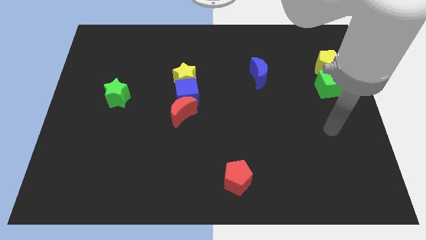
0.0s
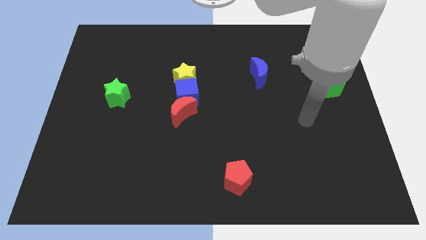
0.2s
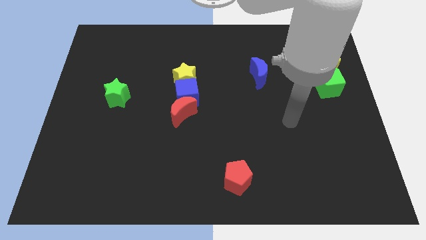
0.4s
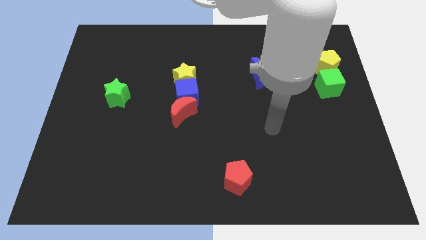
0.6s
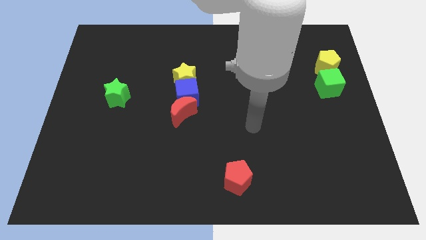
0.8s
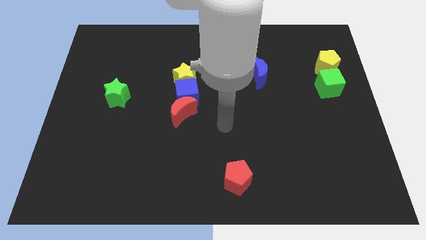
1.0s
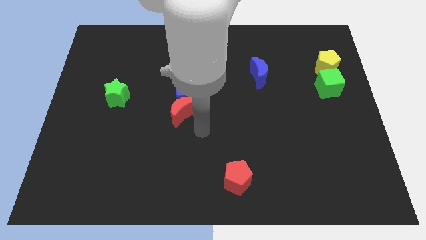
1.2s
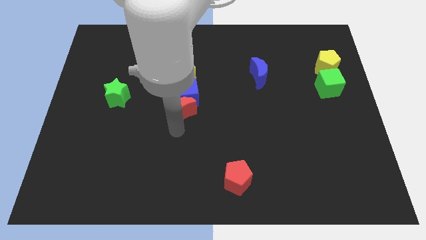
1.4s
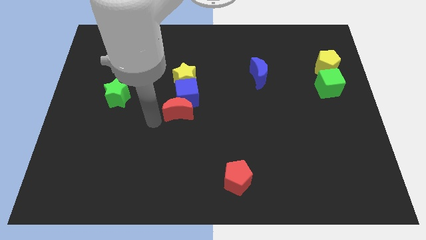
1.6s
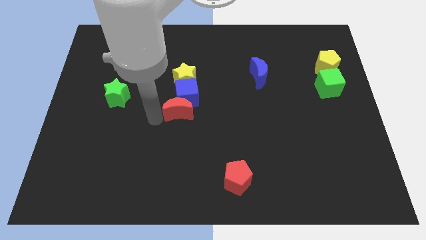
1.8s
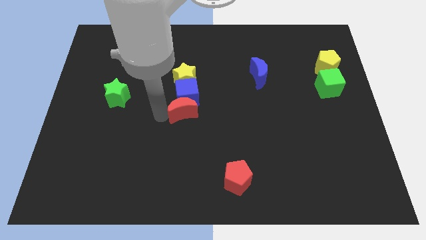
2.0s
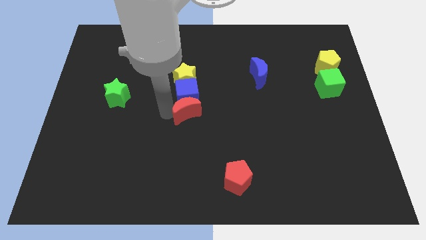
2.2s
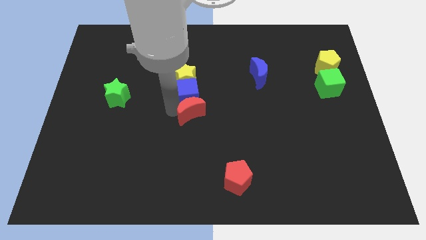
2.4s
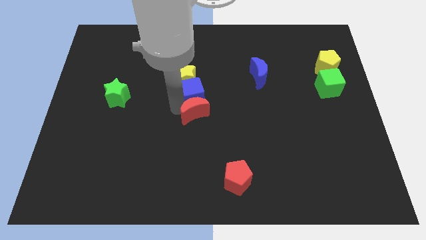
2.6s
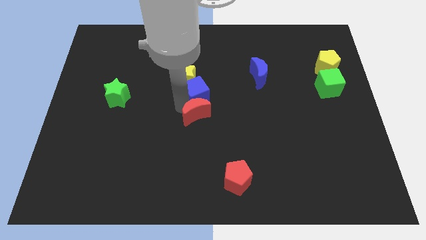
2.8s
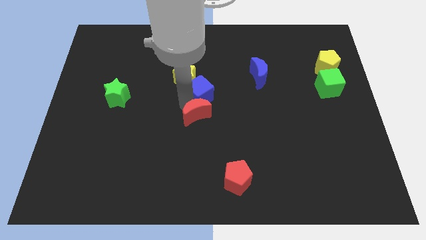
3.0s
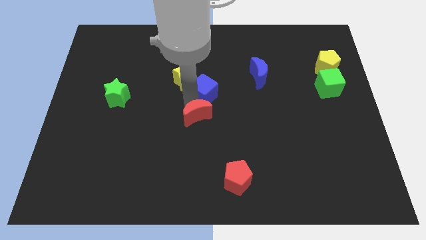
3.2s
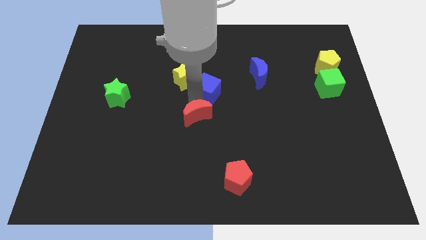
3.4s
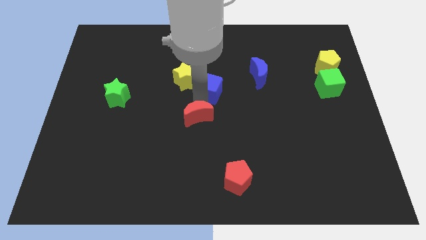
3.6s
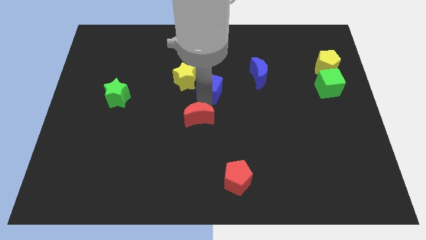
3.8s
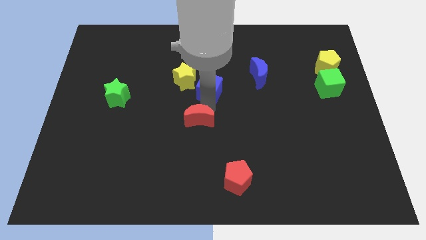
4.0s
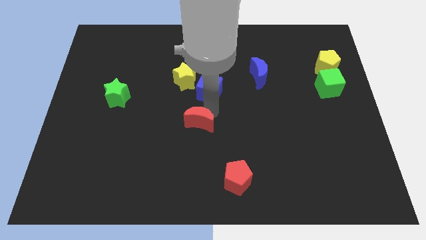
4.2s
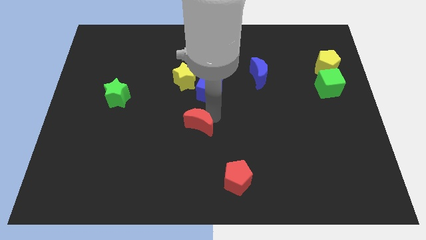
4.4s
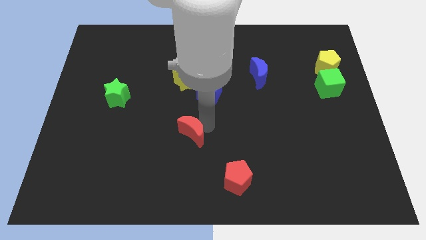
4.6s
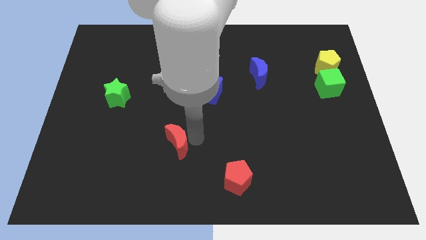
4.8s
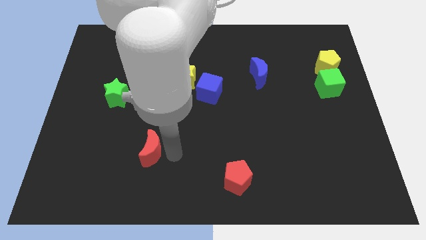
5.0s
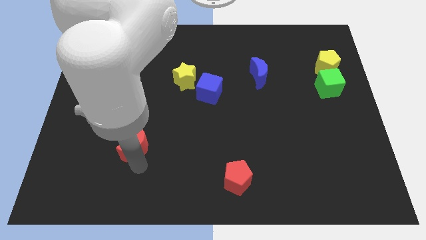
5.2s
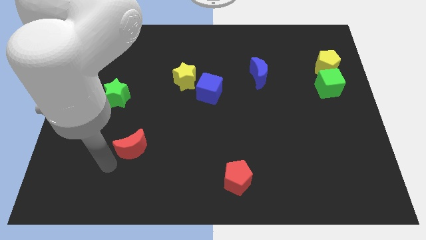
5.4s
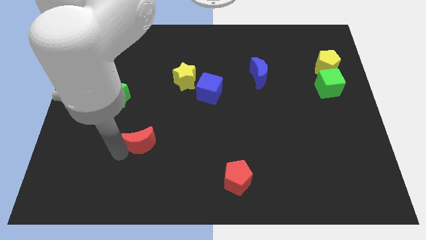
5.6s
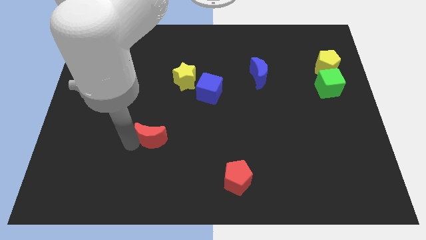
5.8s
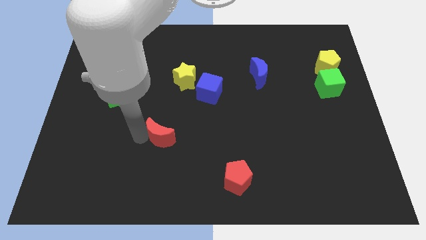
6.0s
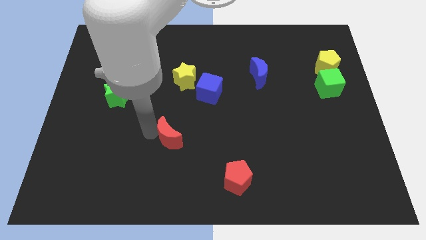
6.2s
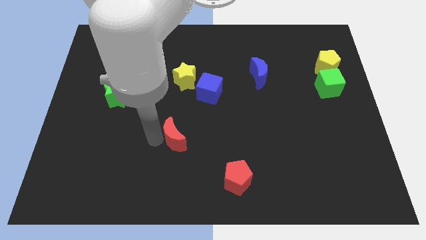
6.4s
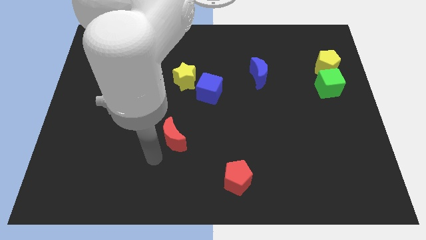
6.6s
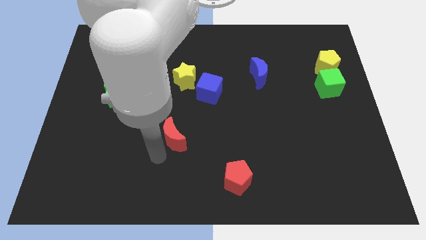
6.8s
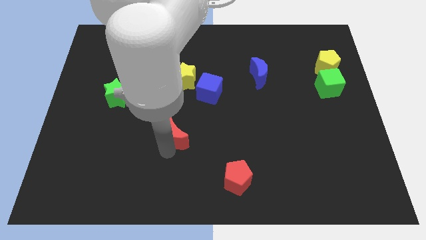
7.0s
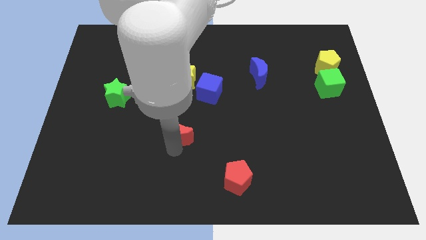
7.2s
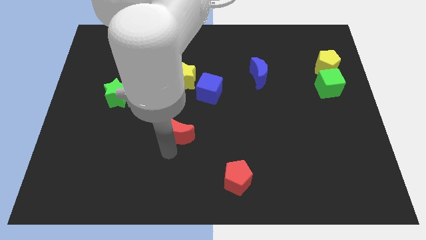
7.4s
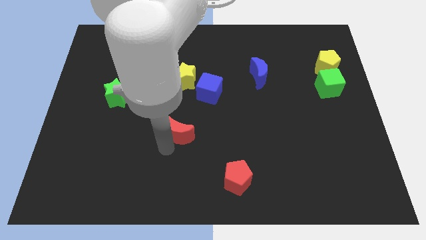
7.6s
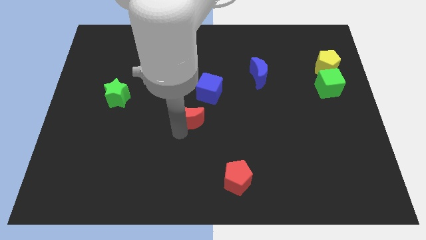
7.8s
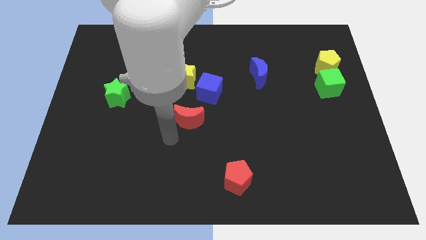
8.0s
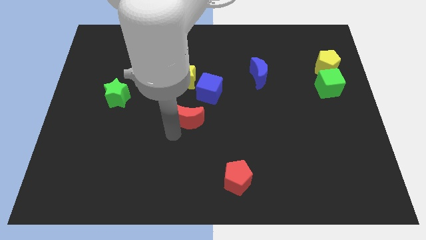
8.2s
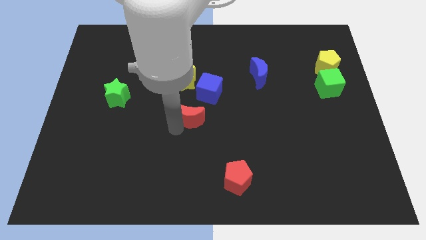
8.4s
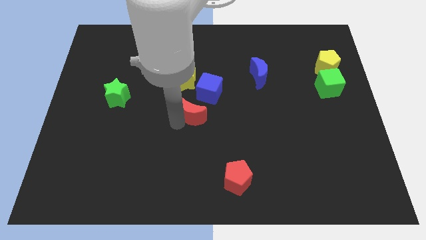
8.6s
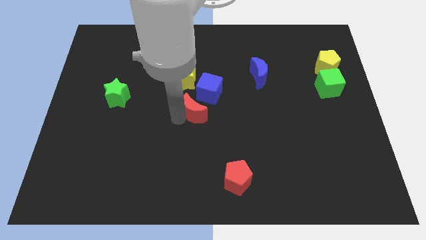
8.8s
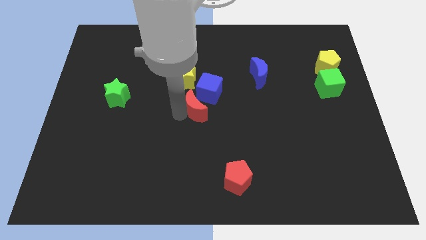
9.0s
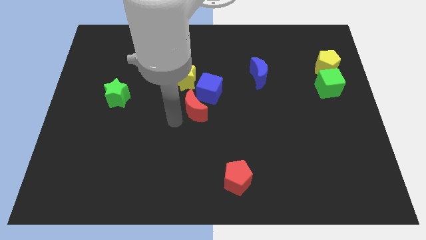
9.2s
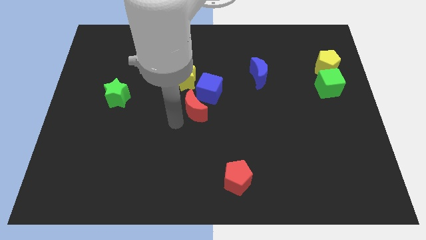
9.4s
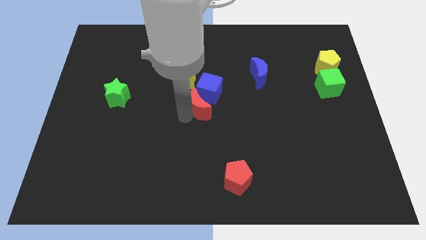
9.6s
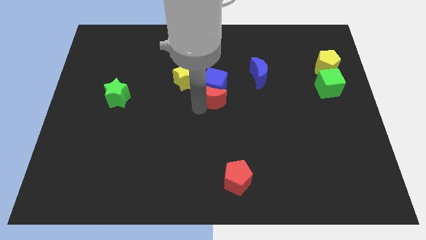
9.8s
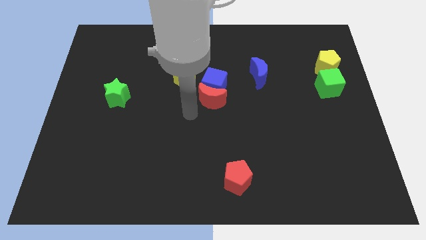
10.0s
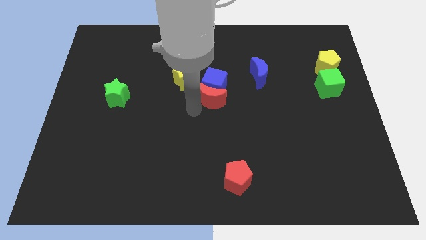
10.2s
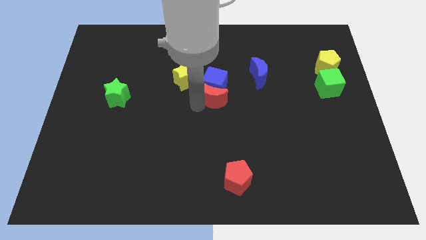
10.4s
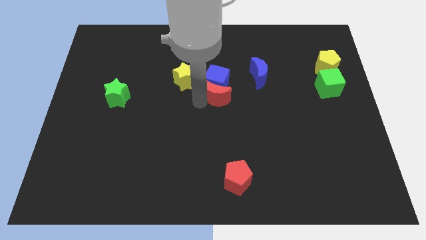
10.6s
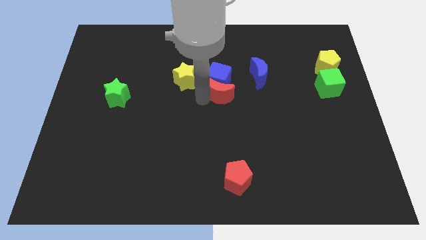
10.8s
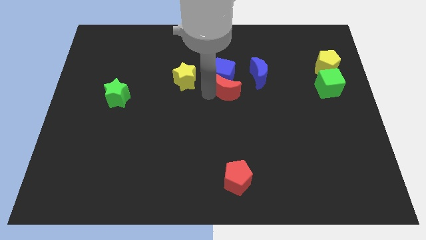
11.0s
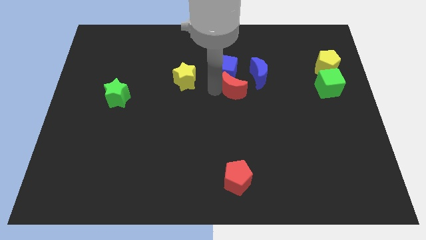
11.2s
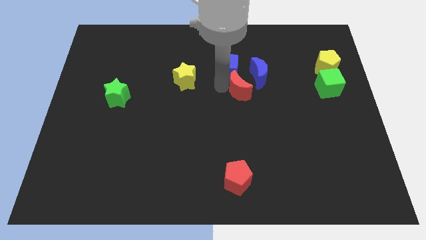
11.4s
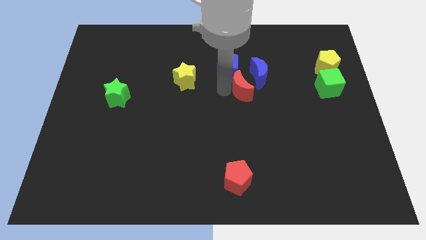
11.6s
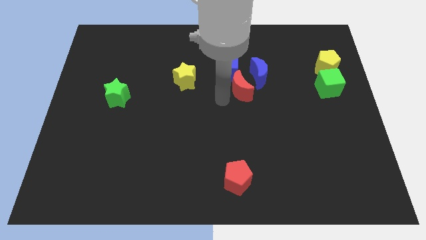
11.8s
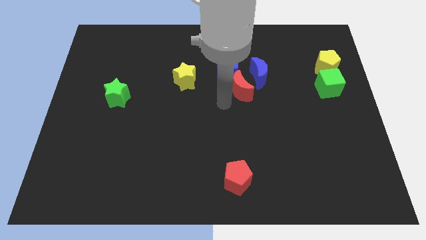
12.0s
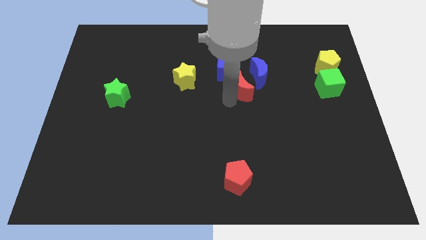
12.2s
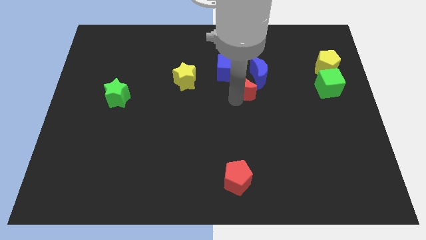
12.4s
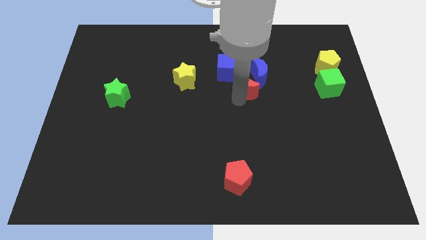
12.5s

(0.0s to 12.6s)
move the red moon to the blue moon

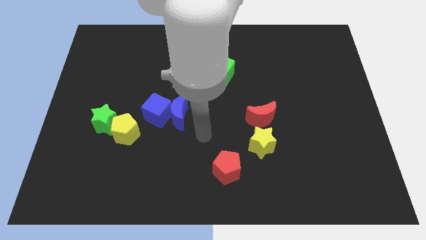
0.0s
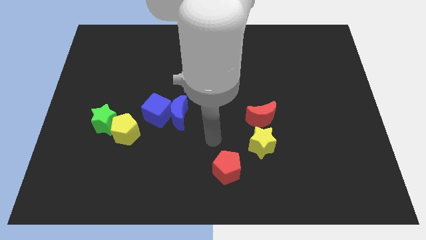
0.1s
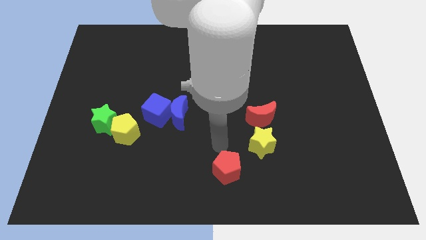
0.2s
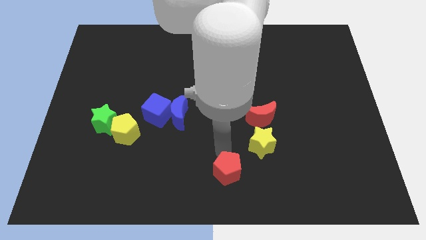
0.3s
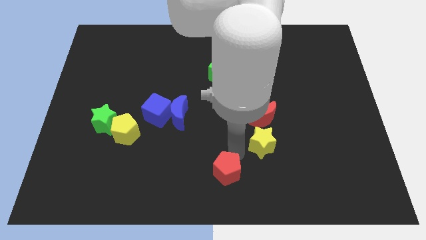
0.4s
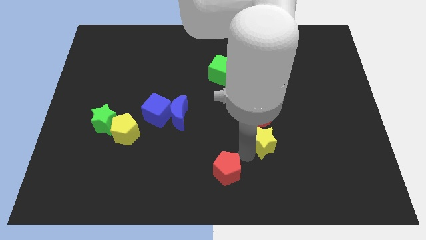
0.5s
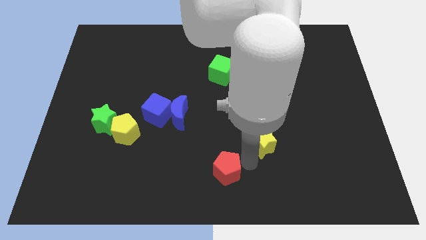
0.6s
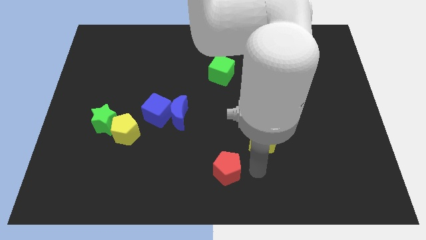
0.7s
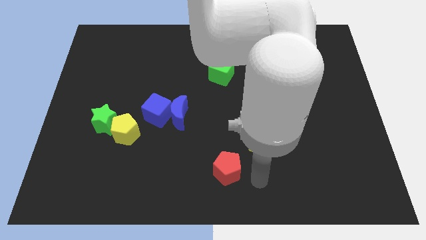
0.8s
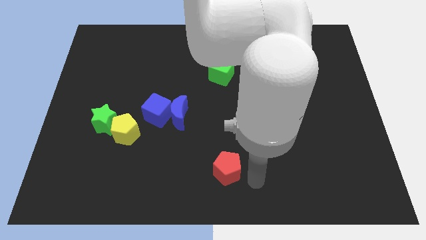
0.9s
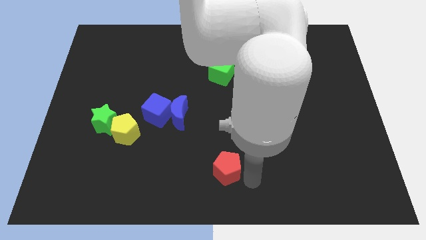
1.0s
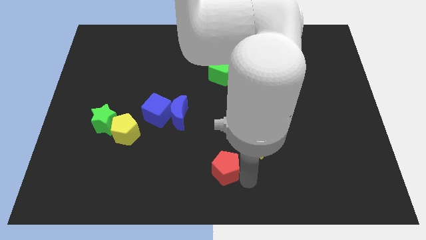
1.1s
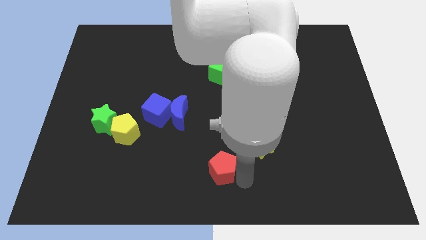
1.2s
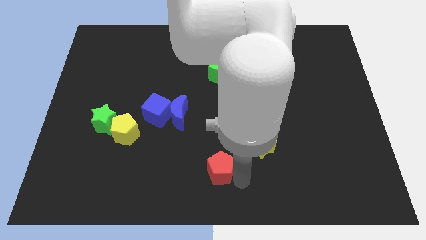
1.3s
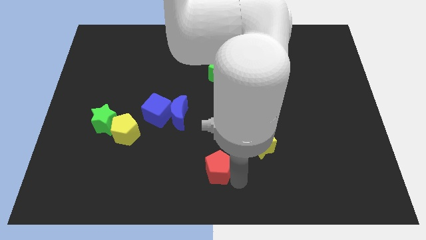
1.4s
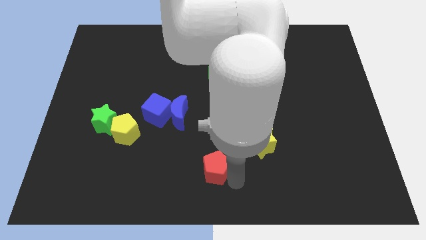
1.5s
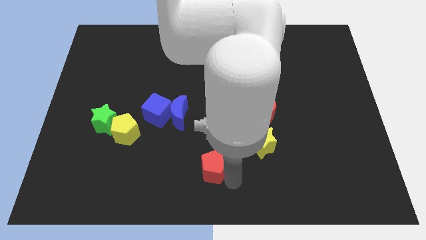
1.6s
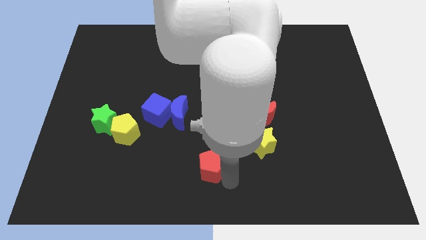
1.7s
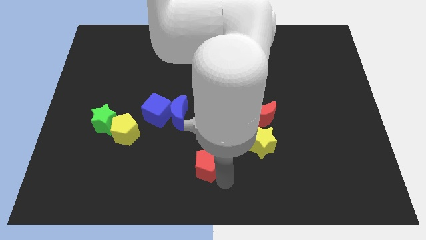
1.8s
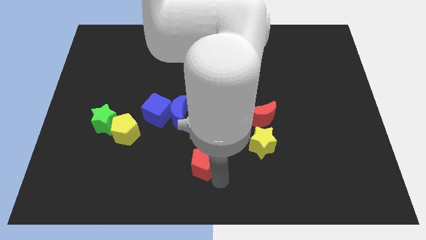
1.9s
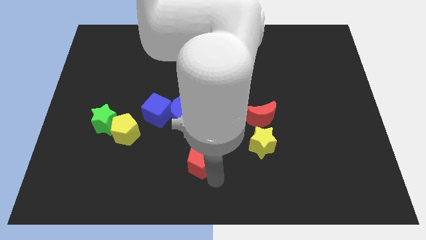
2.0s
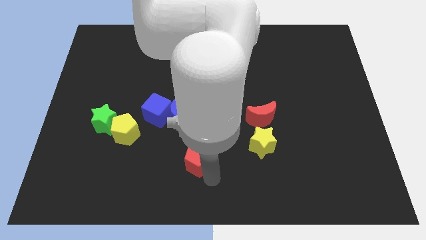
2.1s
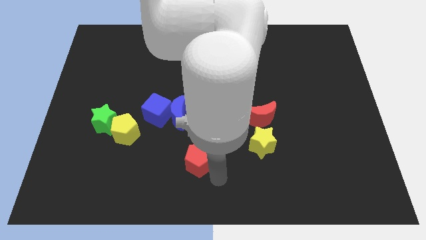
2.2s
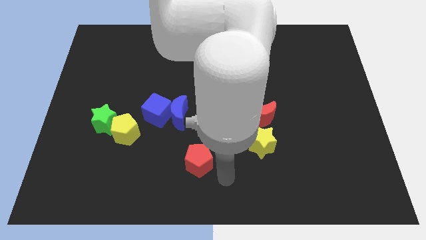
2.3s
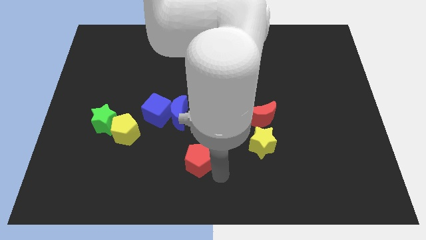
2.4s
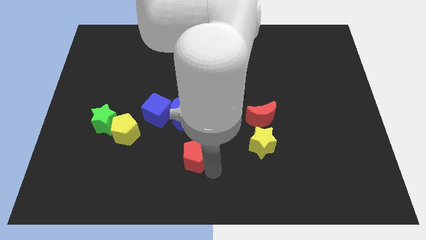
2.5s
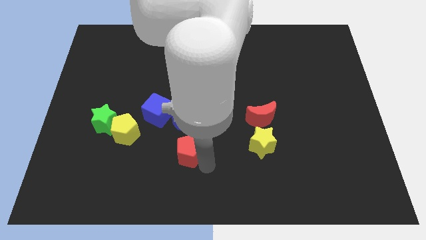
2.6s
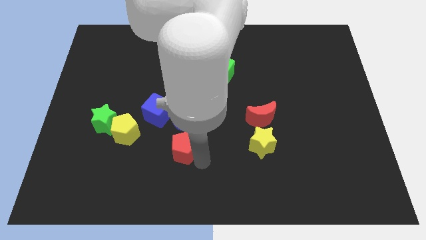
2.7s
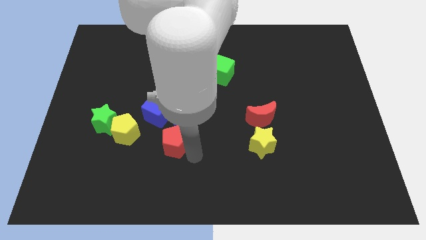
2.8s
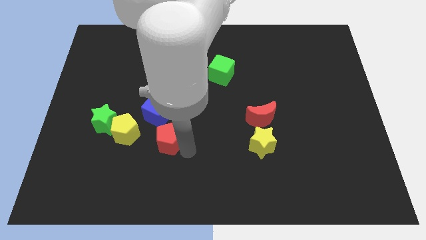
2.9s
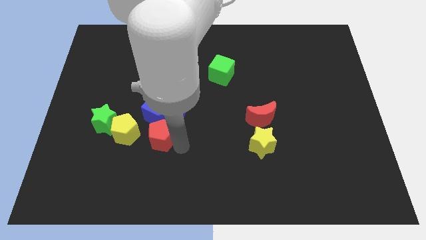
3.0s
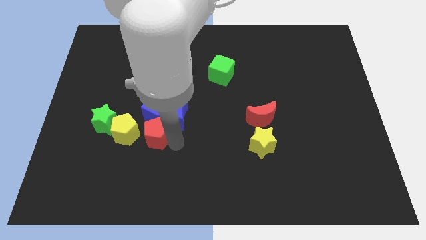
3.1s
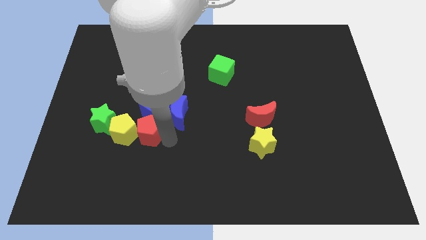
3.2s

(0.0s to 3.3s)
put the red pentagon to the yellow pentagon
